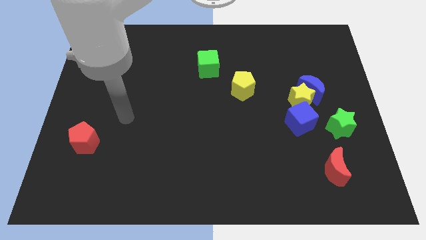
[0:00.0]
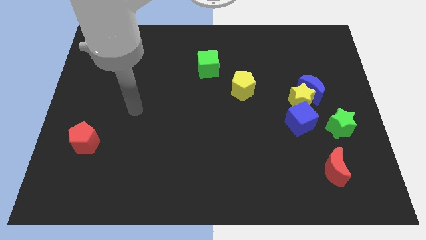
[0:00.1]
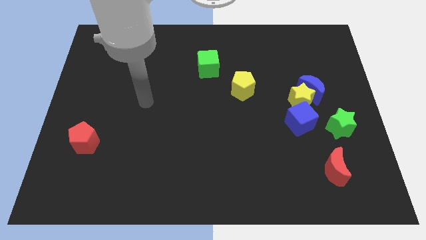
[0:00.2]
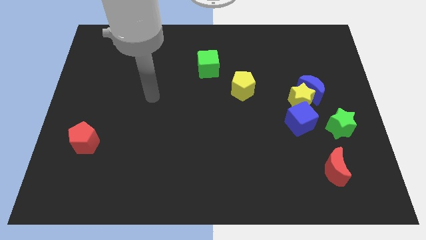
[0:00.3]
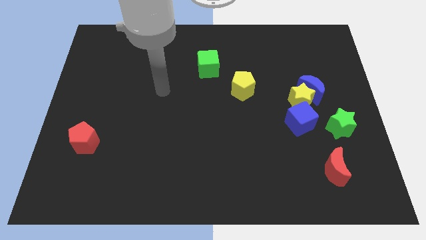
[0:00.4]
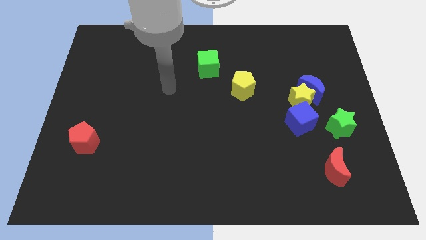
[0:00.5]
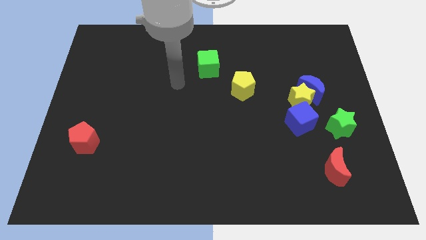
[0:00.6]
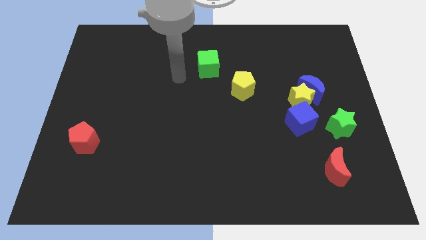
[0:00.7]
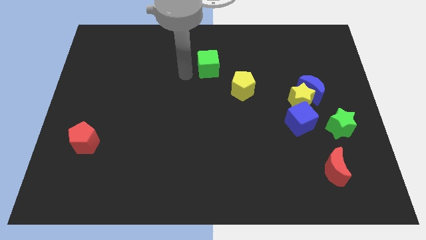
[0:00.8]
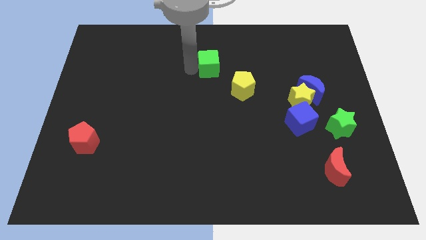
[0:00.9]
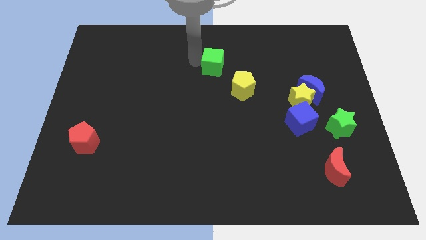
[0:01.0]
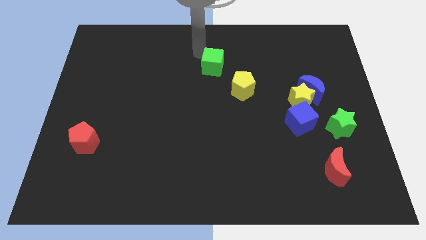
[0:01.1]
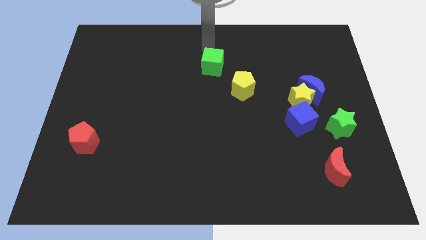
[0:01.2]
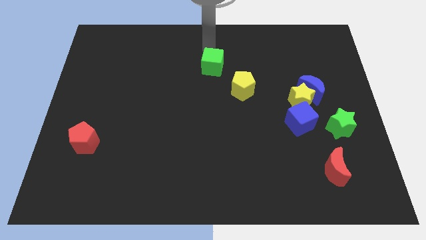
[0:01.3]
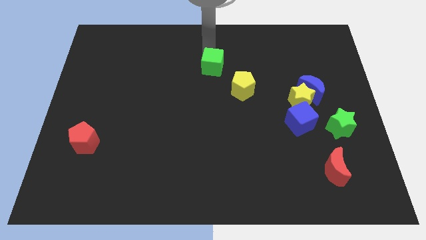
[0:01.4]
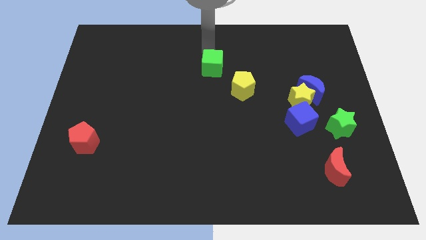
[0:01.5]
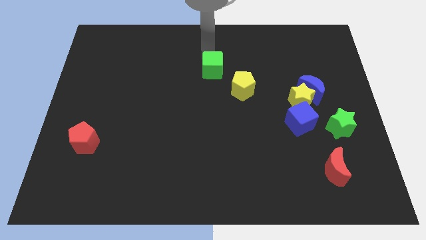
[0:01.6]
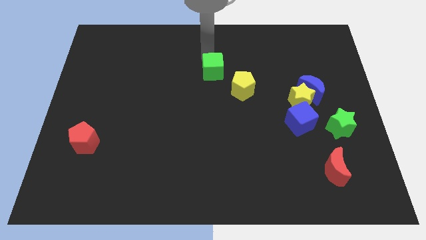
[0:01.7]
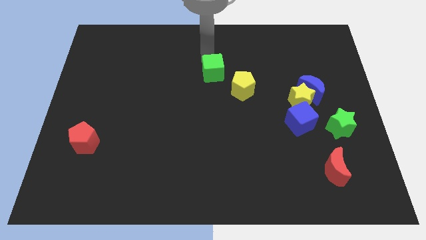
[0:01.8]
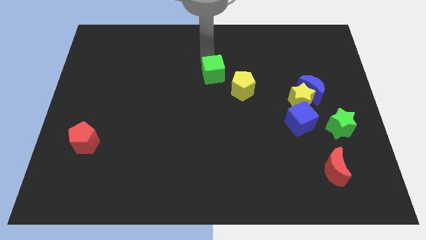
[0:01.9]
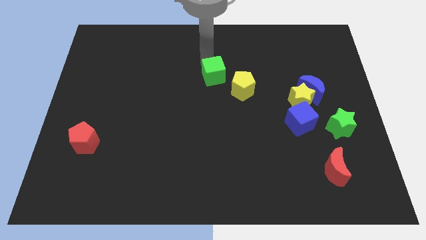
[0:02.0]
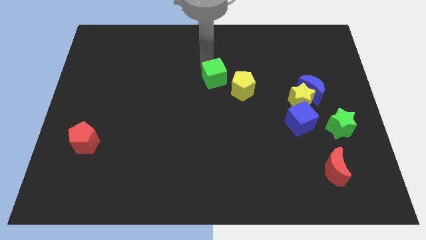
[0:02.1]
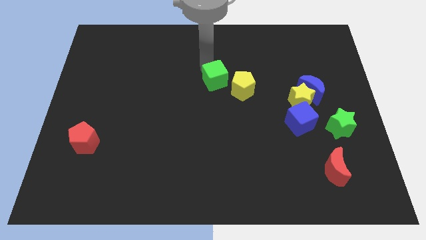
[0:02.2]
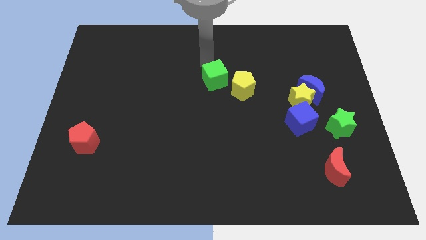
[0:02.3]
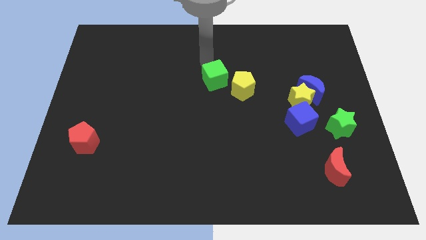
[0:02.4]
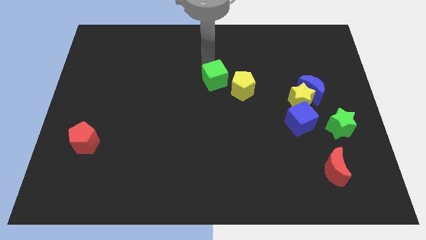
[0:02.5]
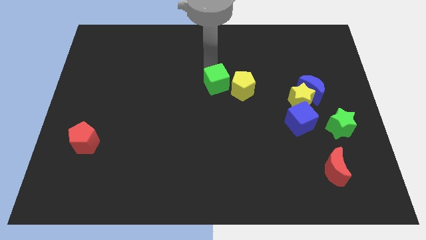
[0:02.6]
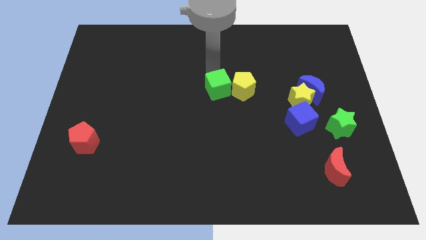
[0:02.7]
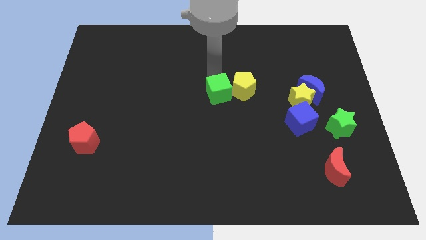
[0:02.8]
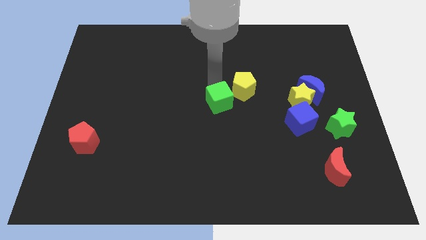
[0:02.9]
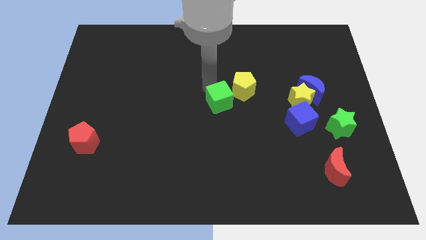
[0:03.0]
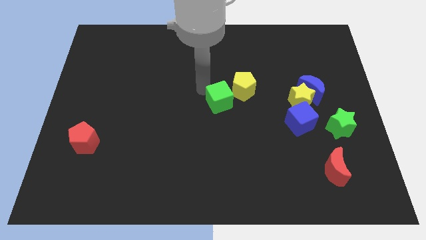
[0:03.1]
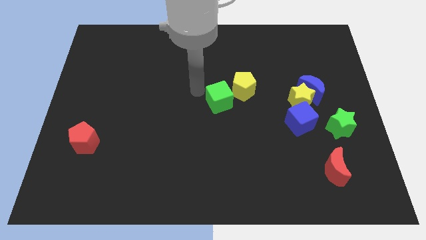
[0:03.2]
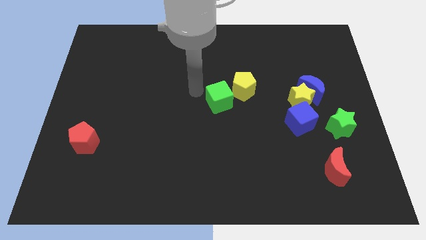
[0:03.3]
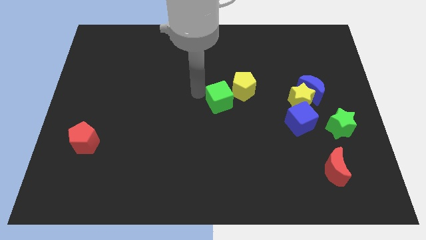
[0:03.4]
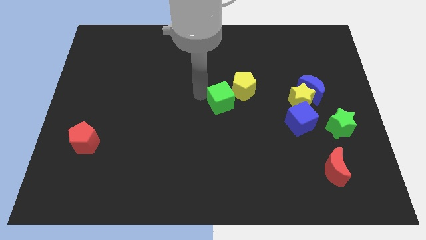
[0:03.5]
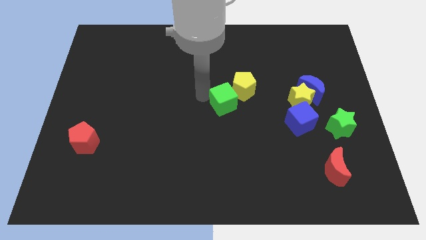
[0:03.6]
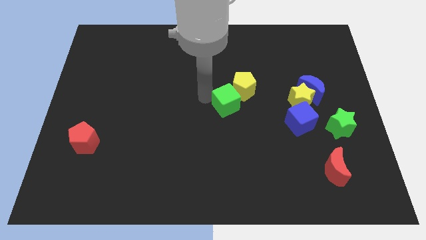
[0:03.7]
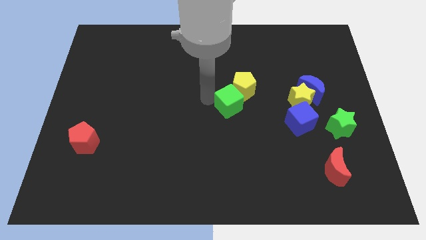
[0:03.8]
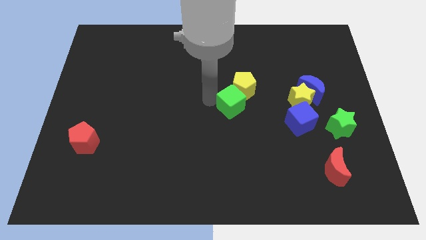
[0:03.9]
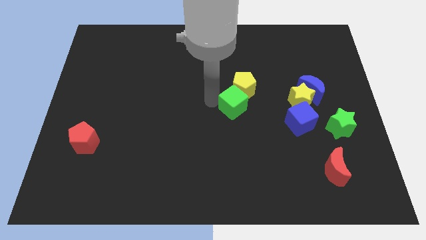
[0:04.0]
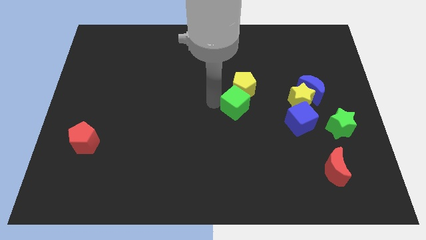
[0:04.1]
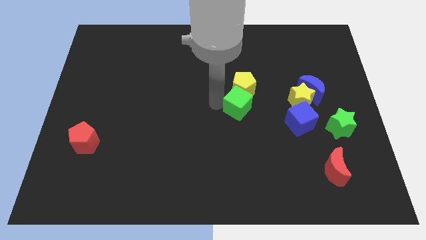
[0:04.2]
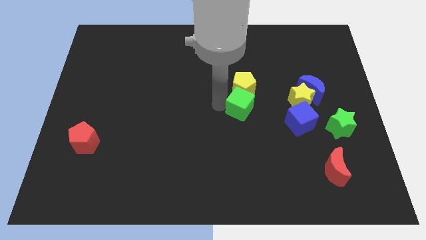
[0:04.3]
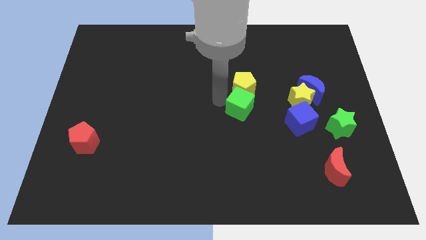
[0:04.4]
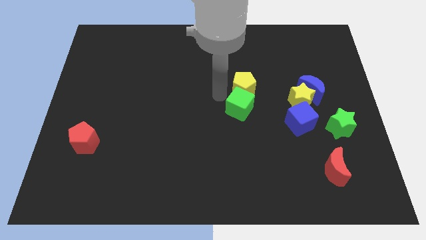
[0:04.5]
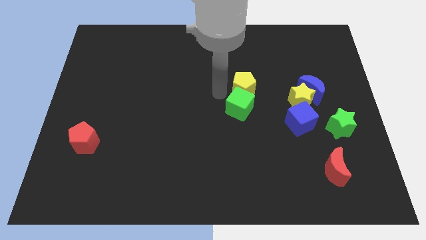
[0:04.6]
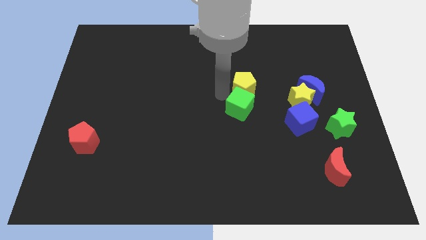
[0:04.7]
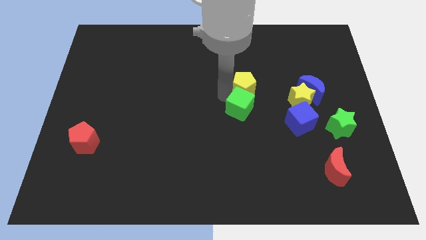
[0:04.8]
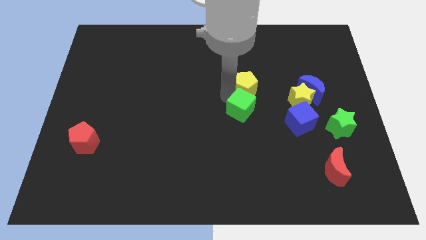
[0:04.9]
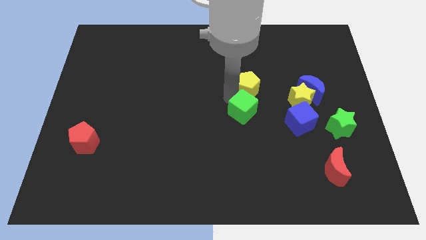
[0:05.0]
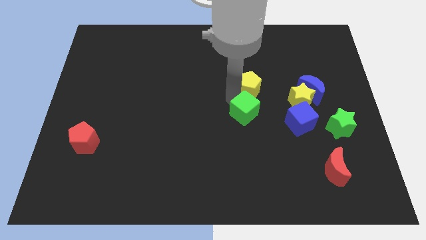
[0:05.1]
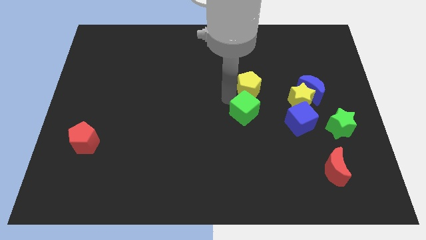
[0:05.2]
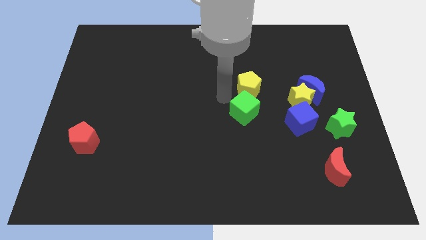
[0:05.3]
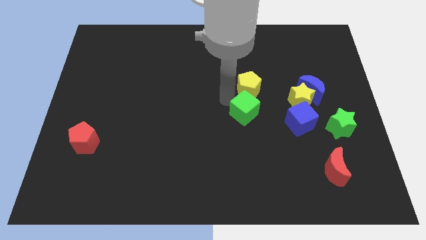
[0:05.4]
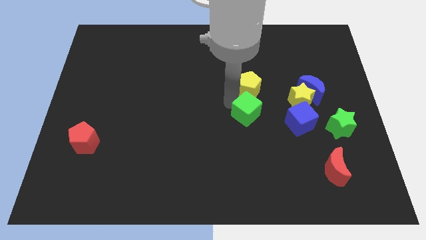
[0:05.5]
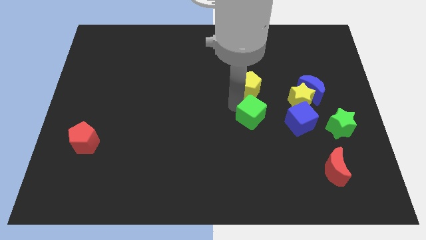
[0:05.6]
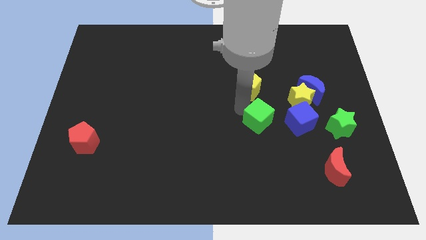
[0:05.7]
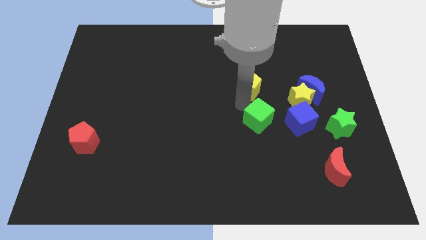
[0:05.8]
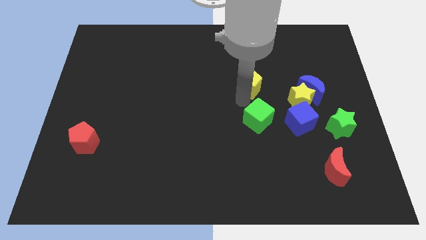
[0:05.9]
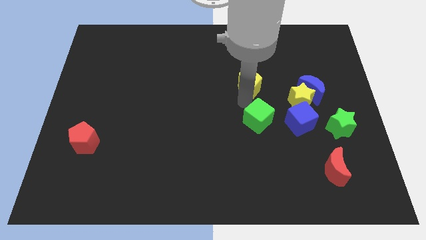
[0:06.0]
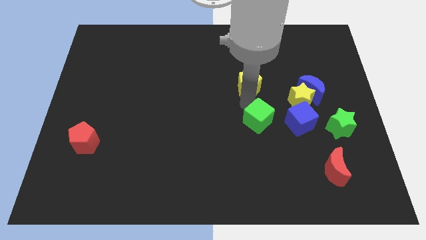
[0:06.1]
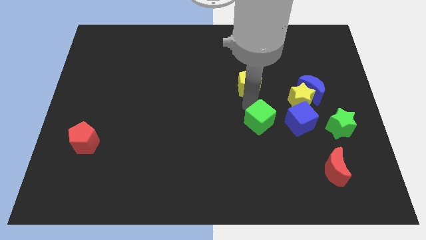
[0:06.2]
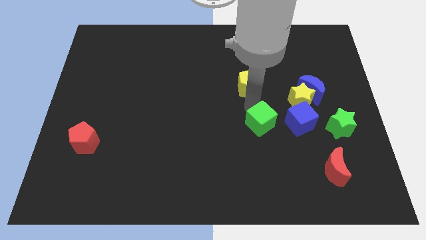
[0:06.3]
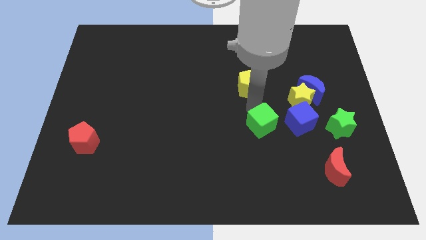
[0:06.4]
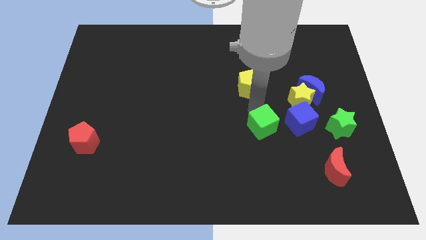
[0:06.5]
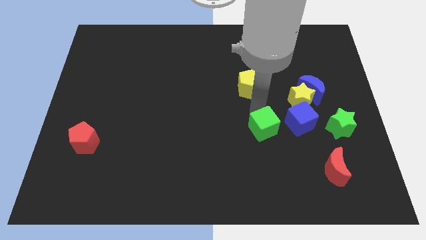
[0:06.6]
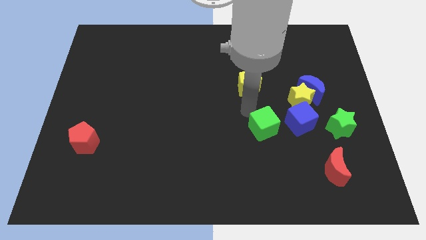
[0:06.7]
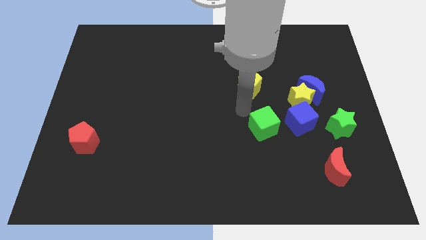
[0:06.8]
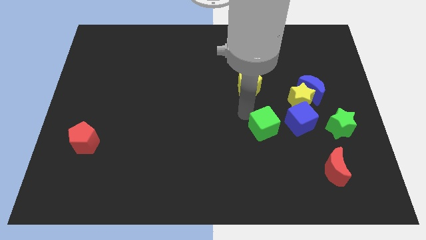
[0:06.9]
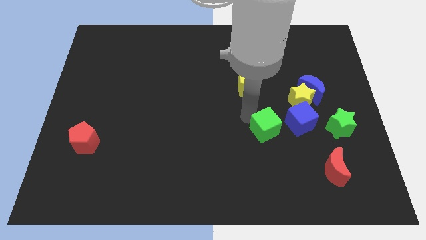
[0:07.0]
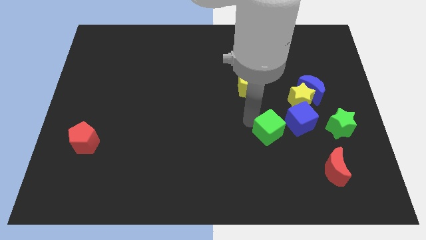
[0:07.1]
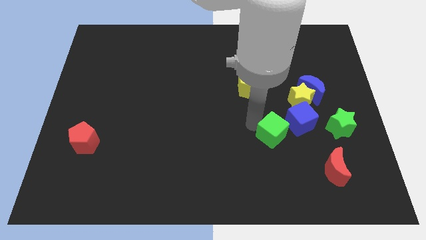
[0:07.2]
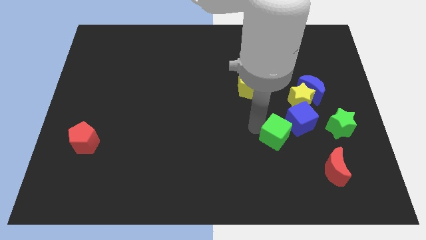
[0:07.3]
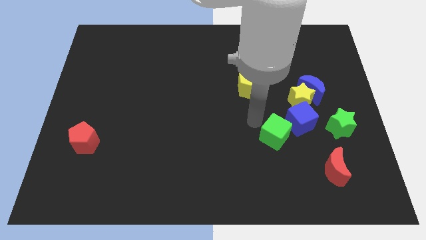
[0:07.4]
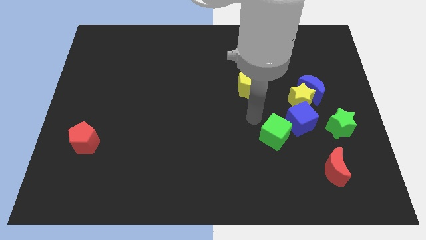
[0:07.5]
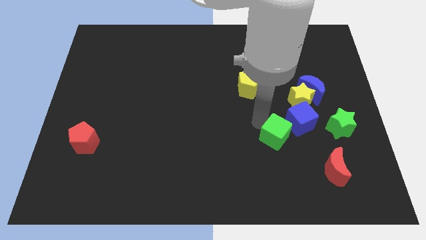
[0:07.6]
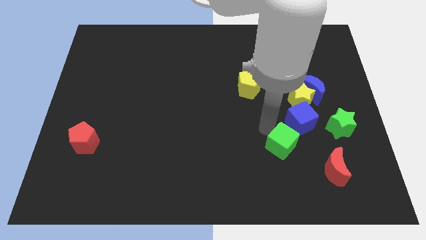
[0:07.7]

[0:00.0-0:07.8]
move the green cube to the bottom of the blue cube

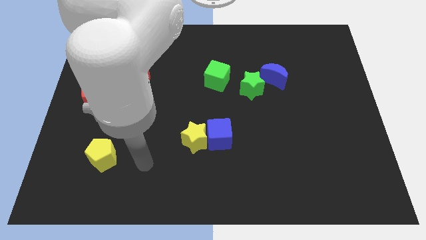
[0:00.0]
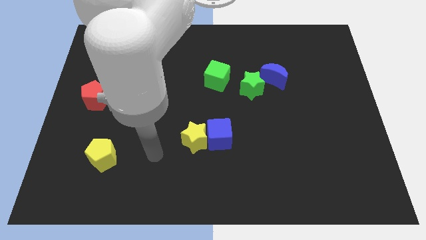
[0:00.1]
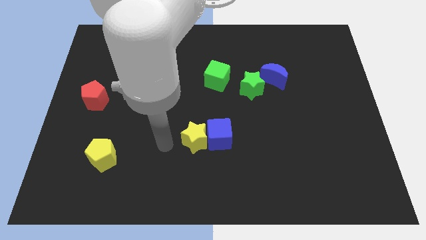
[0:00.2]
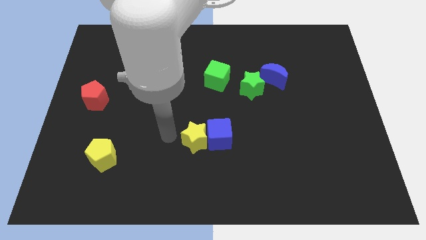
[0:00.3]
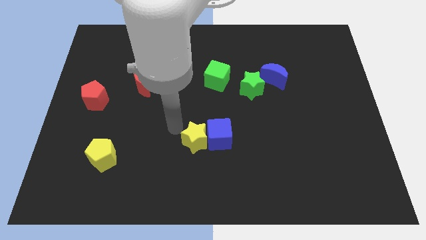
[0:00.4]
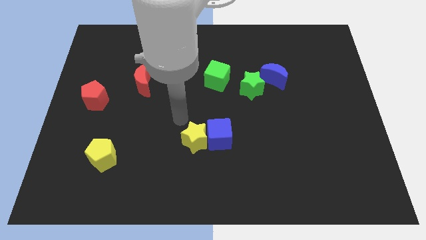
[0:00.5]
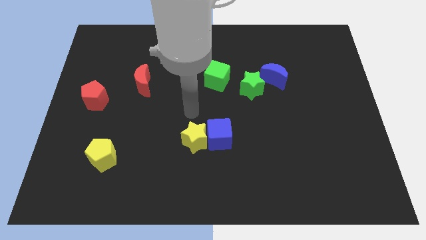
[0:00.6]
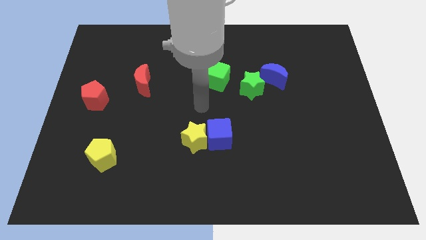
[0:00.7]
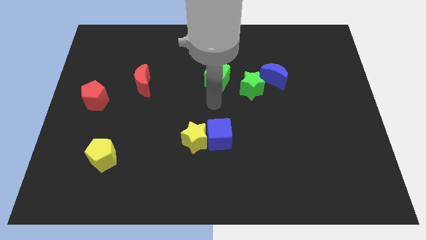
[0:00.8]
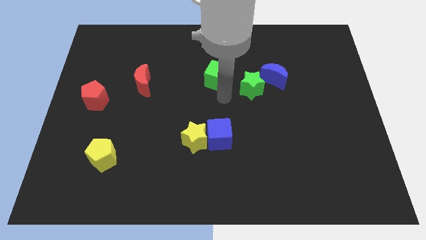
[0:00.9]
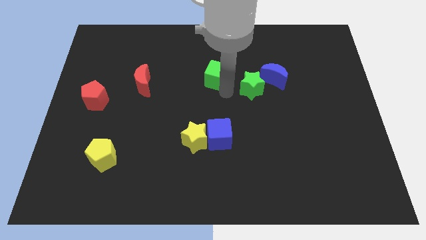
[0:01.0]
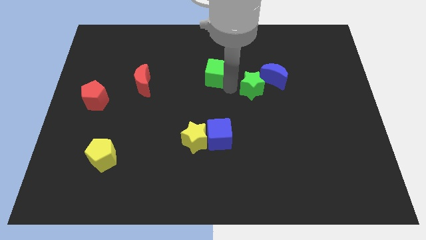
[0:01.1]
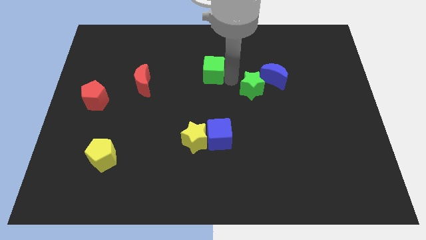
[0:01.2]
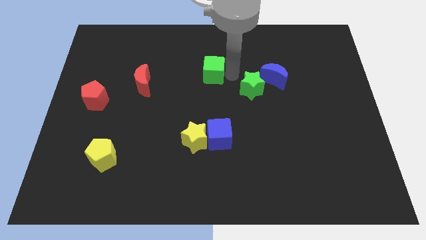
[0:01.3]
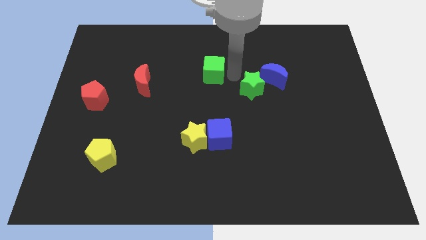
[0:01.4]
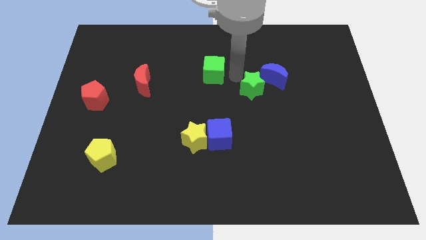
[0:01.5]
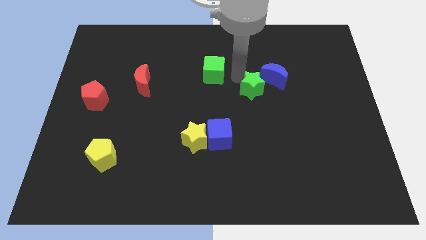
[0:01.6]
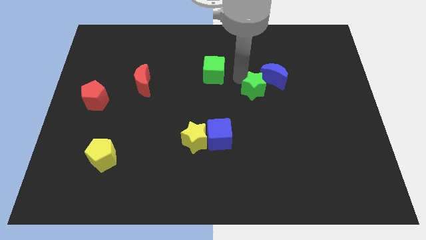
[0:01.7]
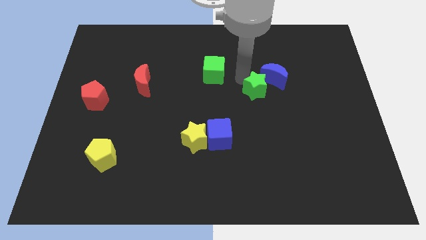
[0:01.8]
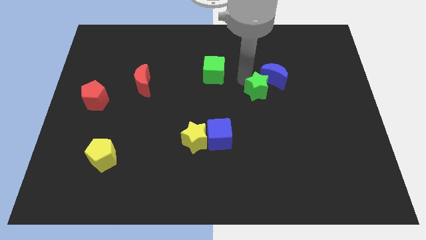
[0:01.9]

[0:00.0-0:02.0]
put the green star below the blue moon
